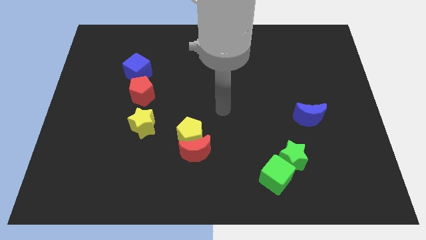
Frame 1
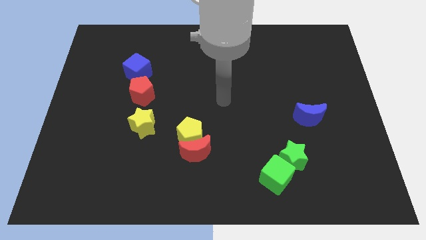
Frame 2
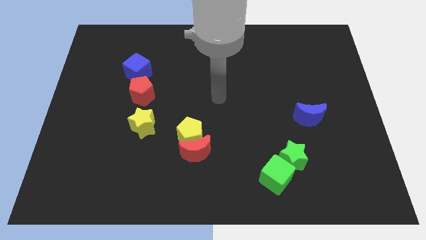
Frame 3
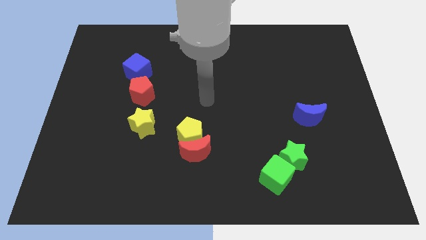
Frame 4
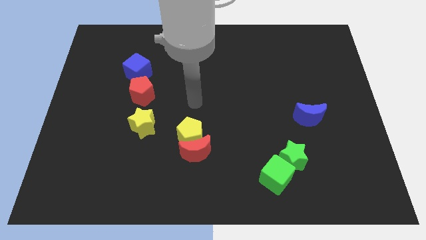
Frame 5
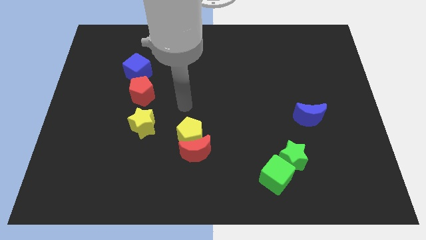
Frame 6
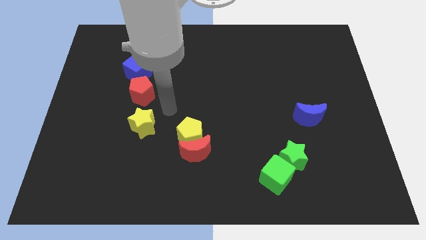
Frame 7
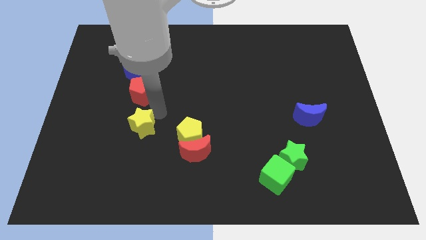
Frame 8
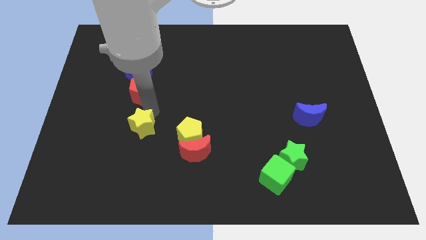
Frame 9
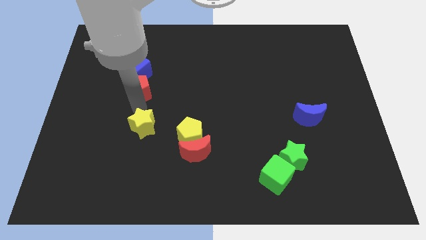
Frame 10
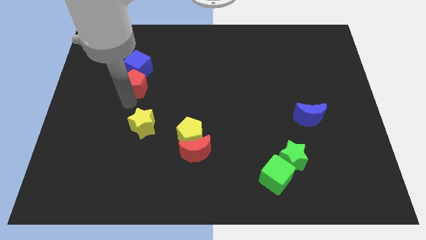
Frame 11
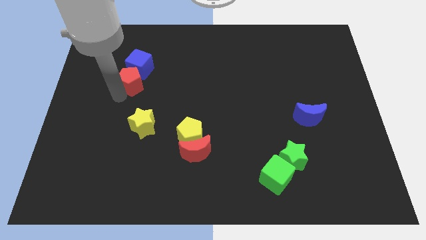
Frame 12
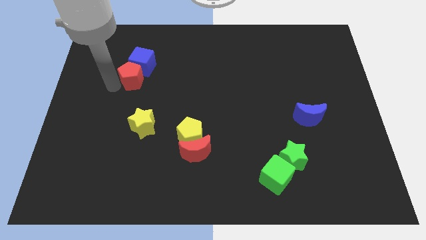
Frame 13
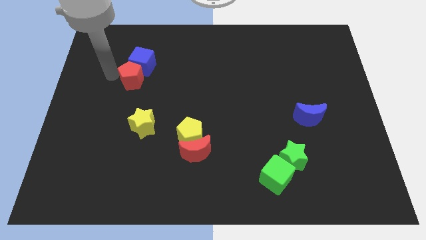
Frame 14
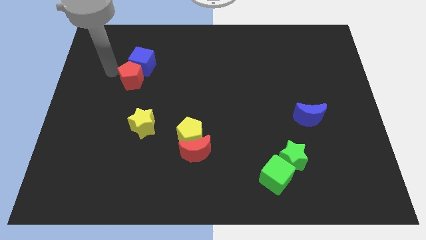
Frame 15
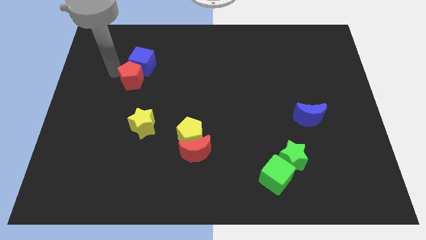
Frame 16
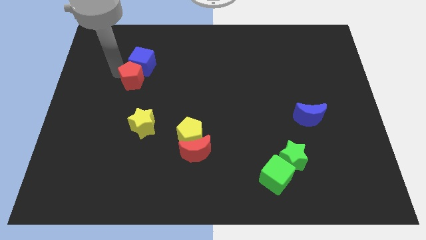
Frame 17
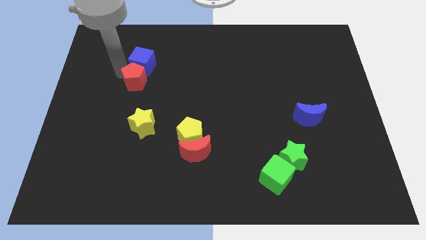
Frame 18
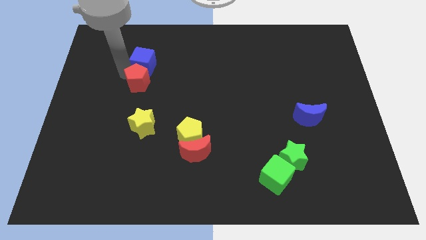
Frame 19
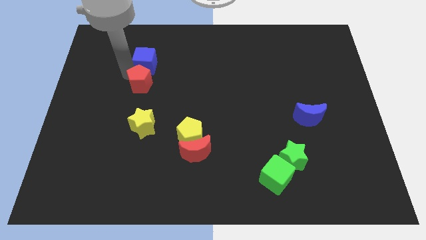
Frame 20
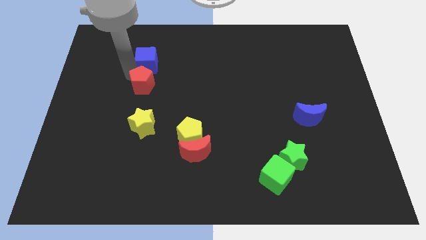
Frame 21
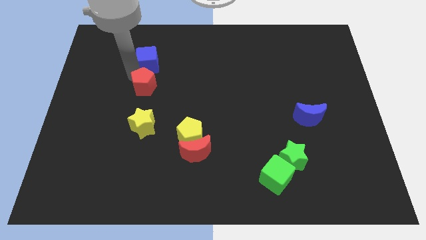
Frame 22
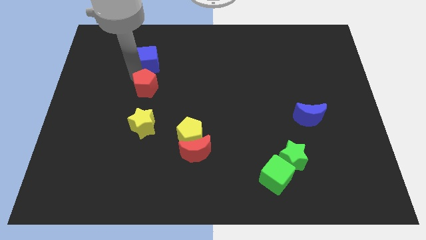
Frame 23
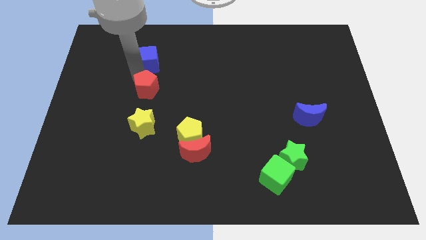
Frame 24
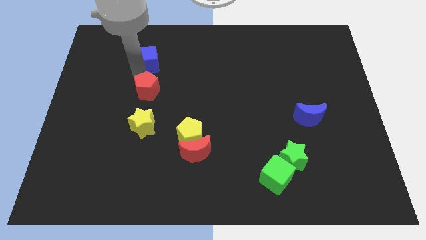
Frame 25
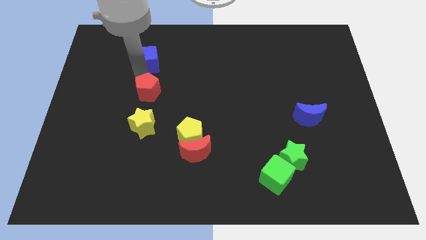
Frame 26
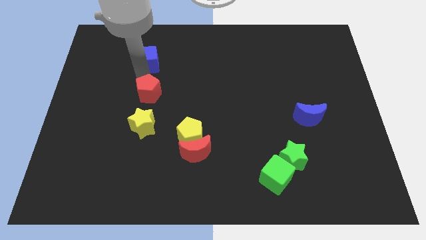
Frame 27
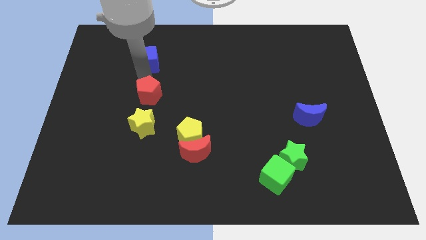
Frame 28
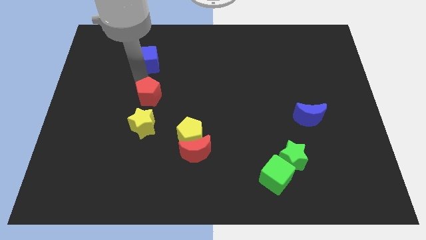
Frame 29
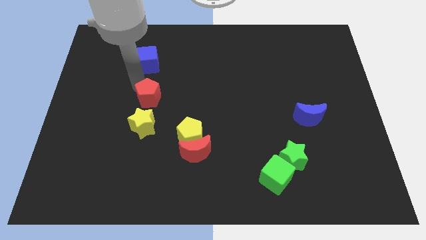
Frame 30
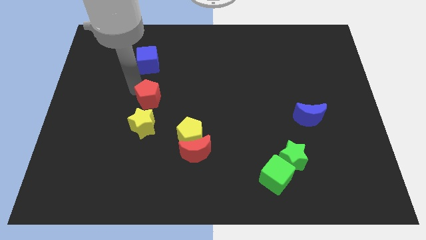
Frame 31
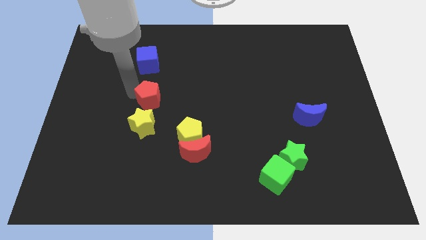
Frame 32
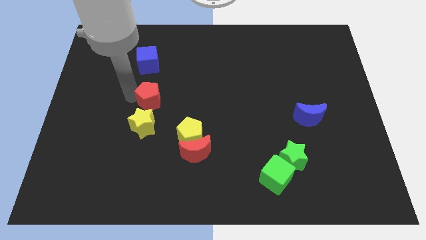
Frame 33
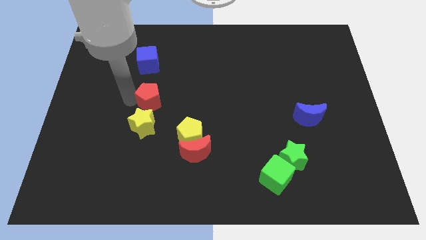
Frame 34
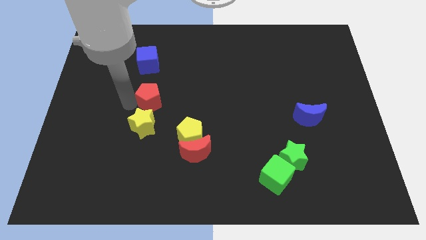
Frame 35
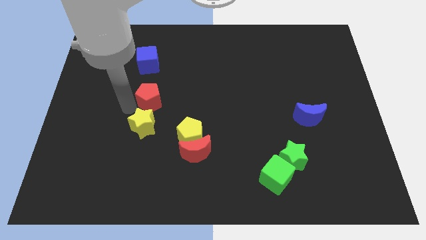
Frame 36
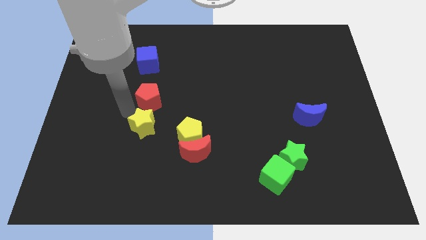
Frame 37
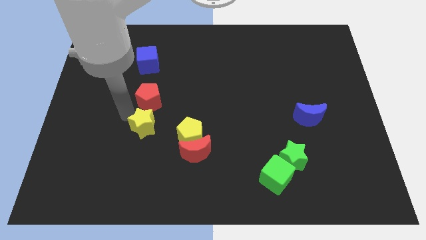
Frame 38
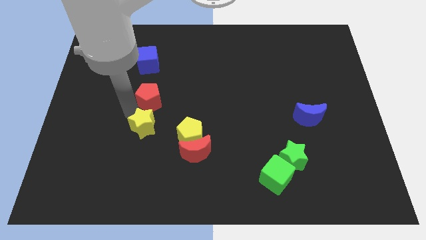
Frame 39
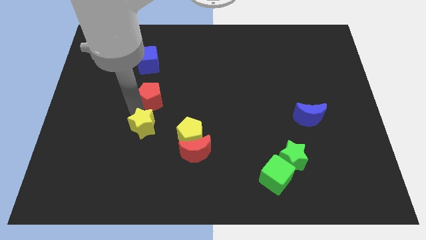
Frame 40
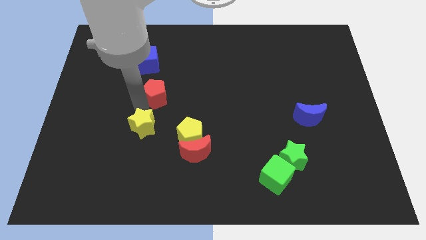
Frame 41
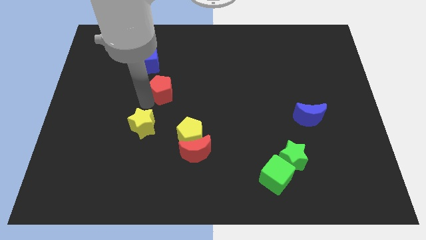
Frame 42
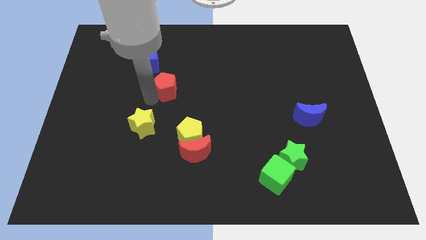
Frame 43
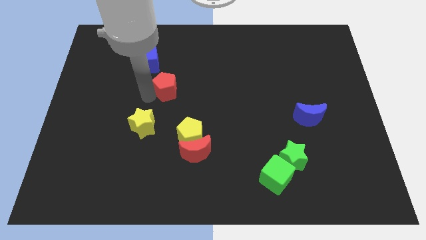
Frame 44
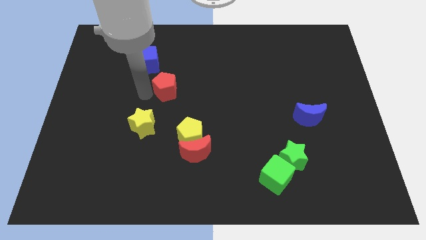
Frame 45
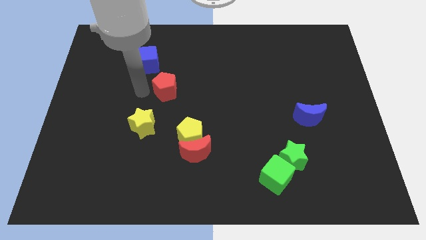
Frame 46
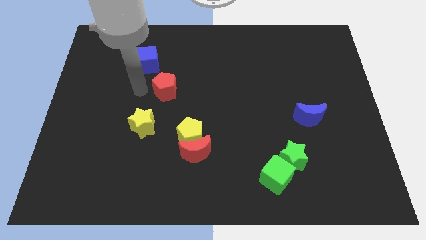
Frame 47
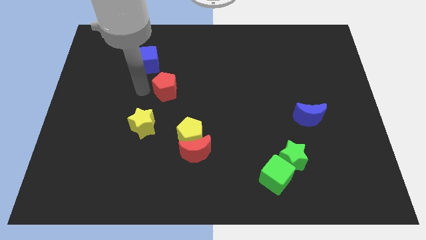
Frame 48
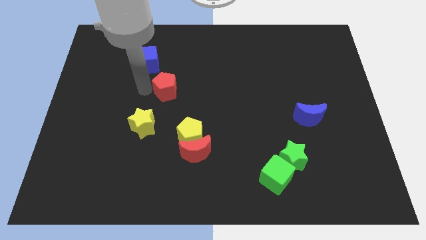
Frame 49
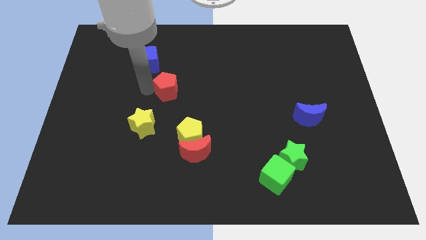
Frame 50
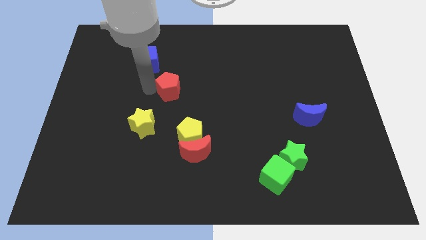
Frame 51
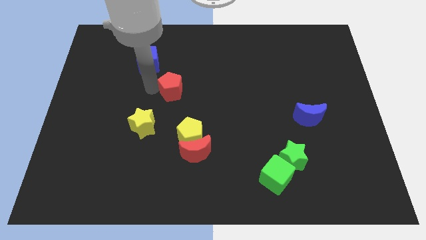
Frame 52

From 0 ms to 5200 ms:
slide the red pentagon to the right a little

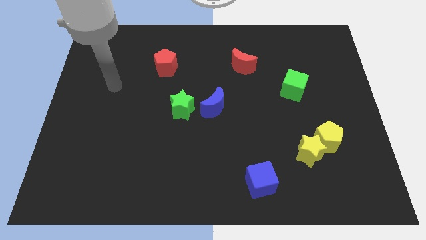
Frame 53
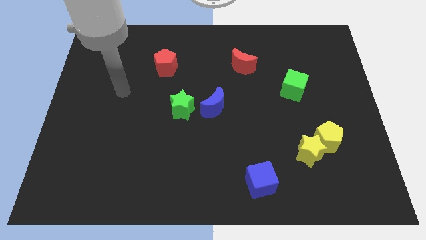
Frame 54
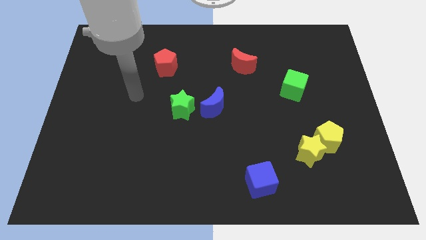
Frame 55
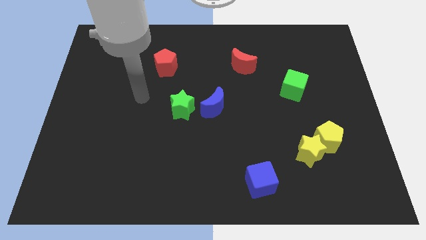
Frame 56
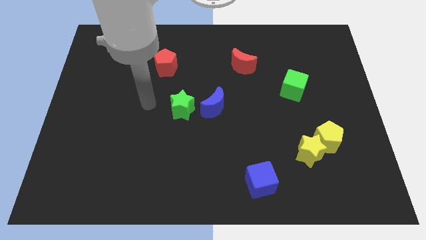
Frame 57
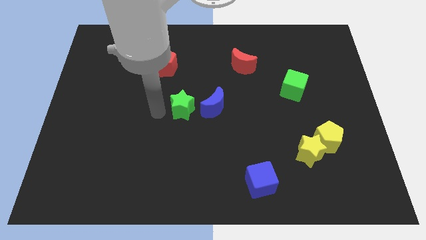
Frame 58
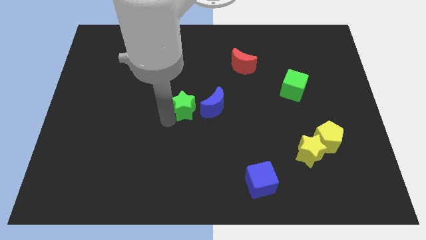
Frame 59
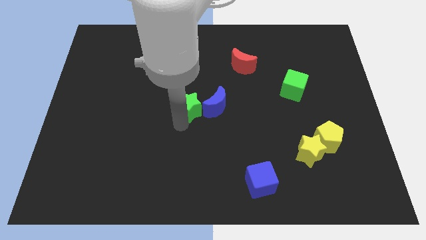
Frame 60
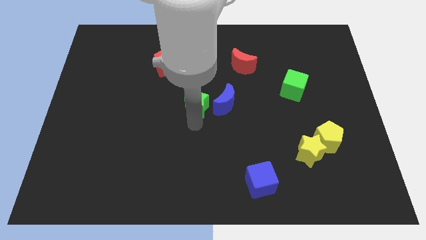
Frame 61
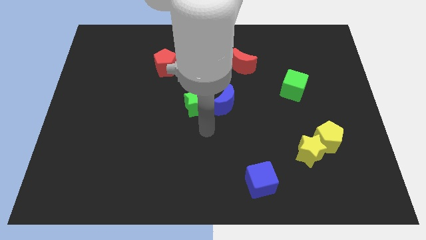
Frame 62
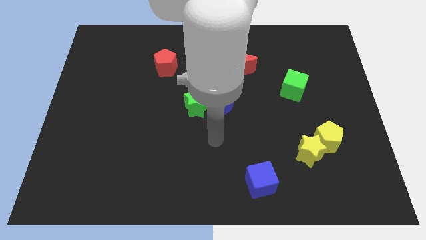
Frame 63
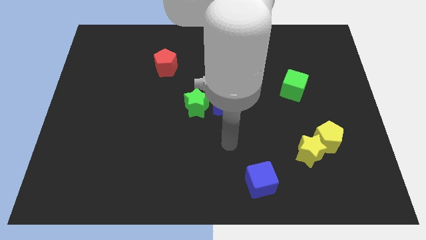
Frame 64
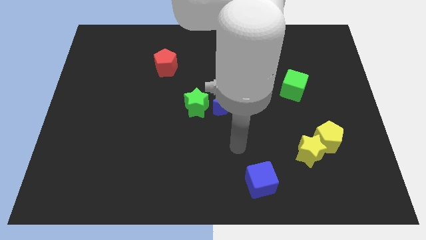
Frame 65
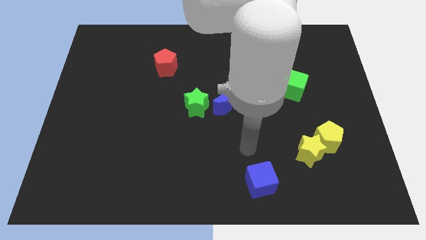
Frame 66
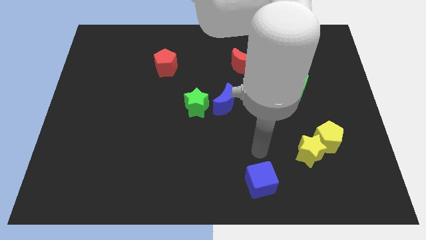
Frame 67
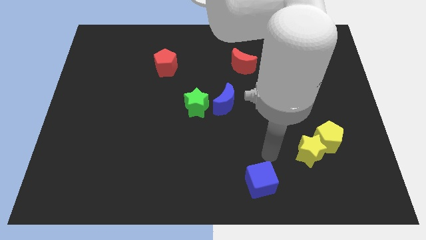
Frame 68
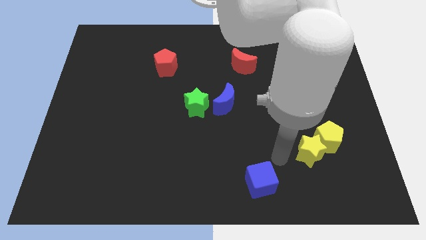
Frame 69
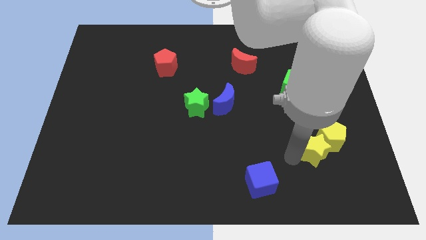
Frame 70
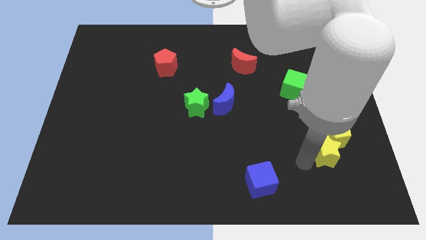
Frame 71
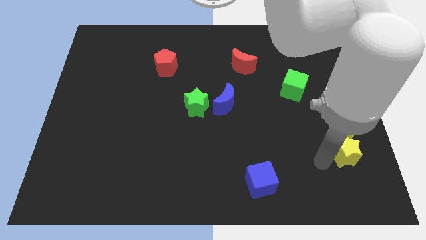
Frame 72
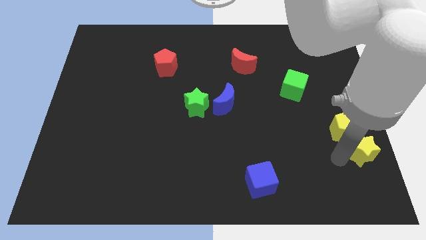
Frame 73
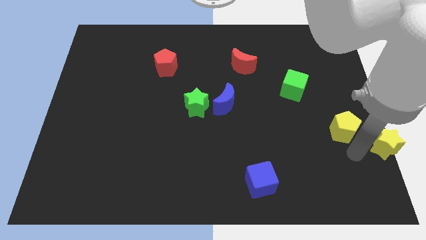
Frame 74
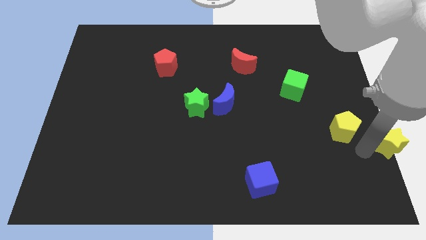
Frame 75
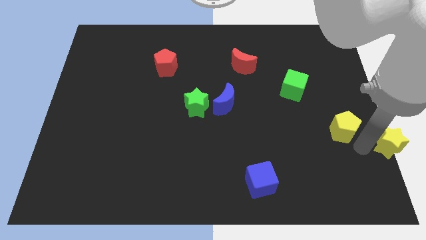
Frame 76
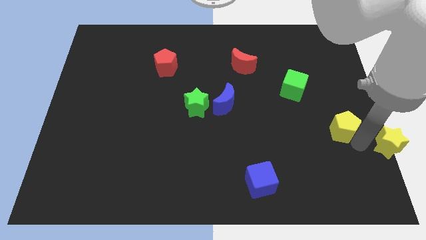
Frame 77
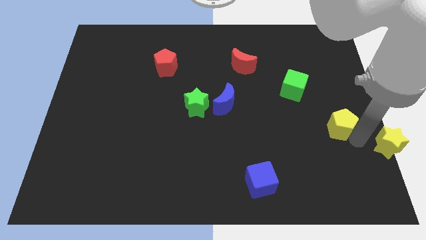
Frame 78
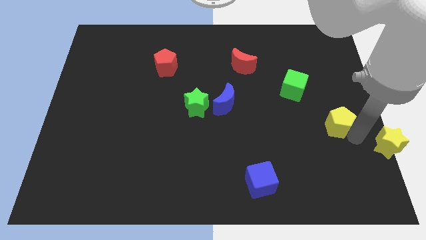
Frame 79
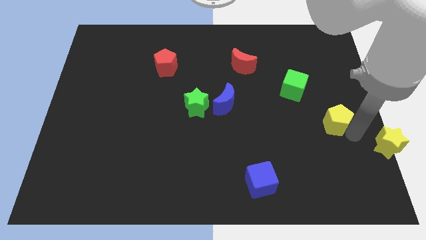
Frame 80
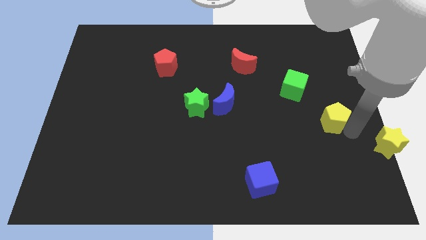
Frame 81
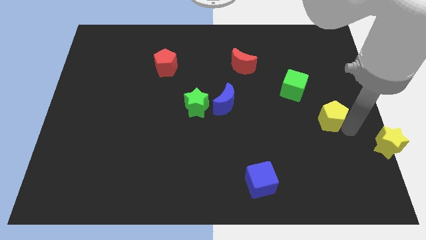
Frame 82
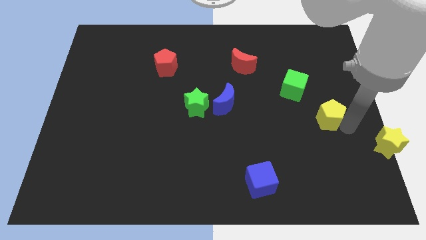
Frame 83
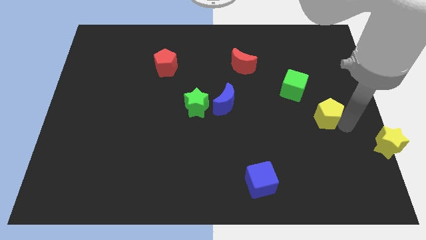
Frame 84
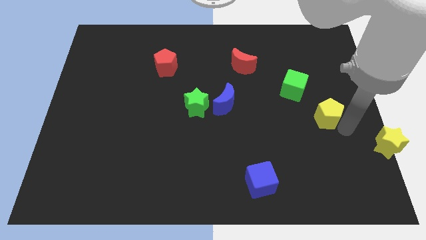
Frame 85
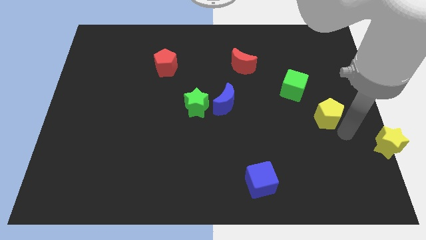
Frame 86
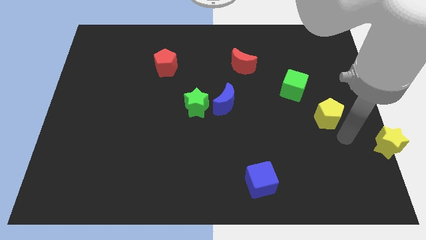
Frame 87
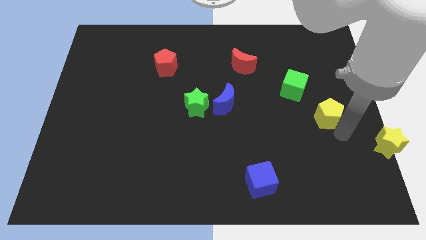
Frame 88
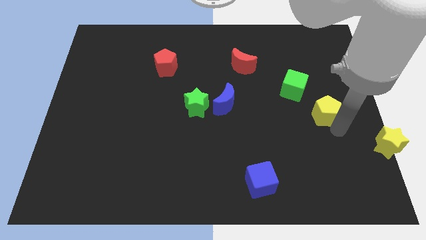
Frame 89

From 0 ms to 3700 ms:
push the yellow pentagon up a little
